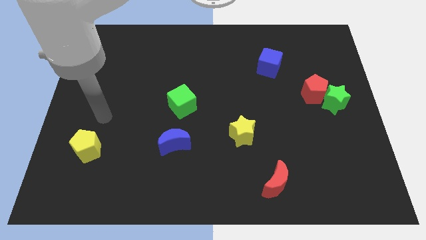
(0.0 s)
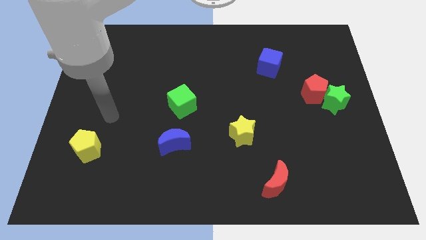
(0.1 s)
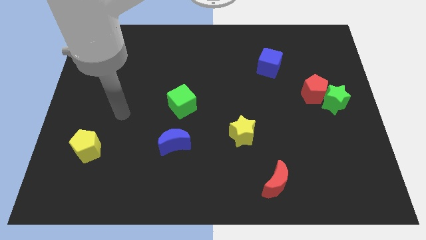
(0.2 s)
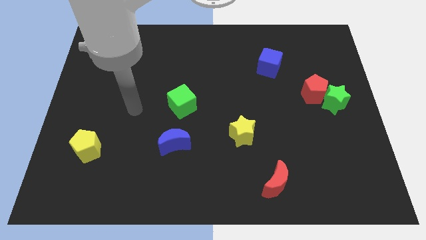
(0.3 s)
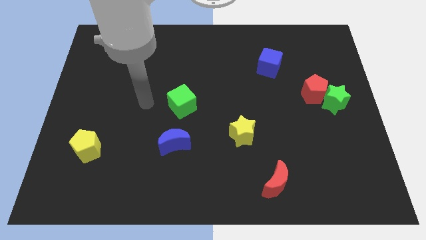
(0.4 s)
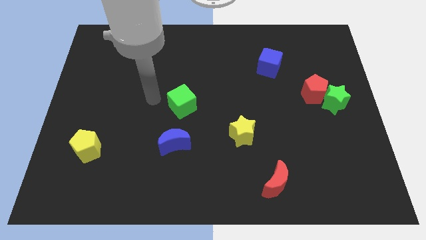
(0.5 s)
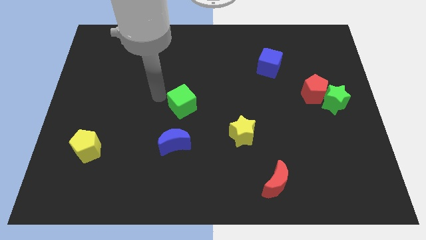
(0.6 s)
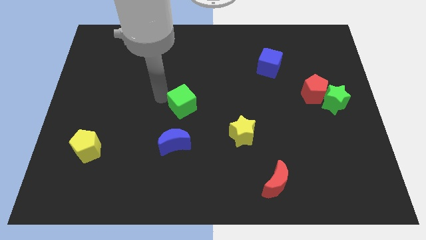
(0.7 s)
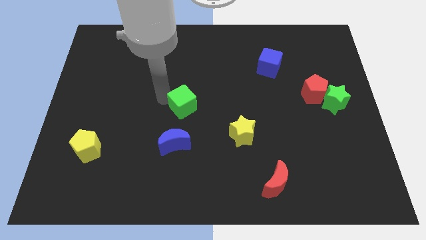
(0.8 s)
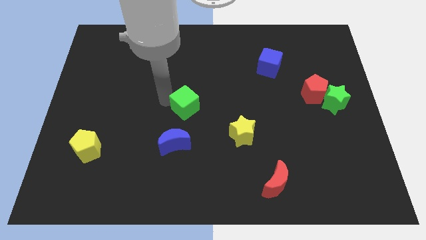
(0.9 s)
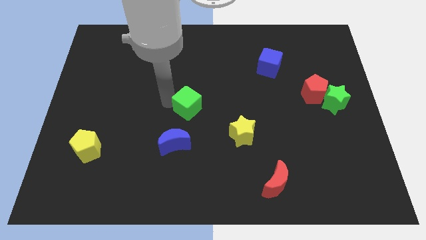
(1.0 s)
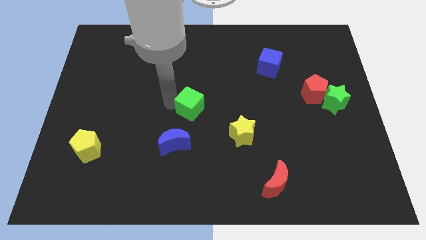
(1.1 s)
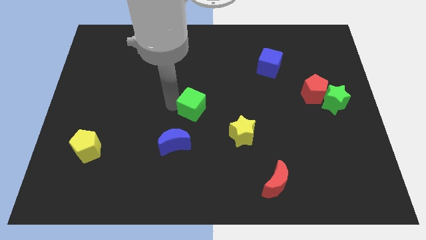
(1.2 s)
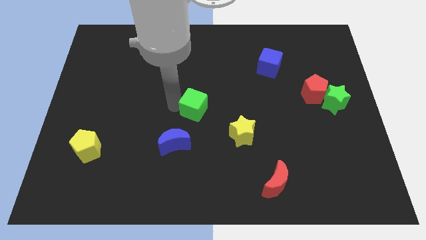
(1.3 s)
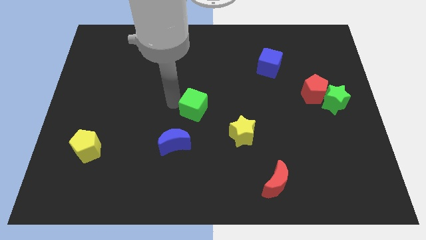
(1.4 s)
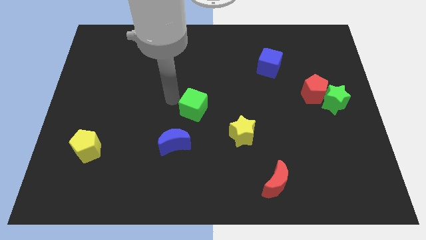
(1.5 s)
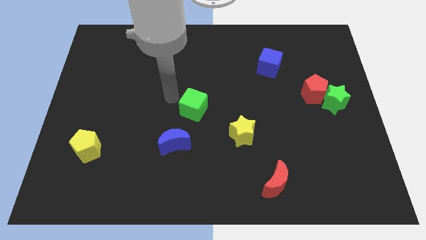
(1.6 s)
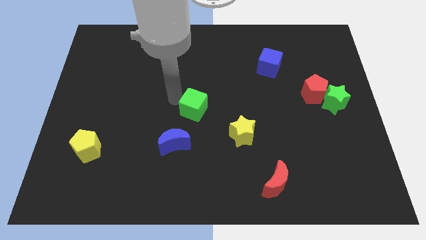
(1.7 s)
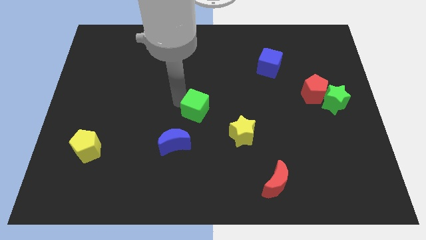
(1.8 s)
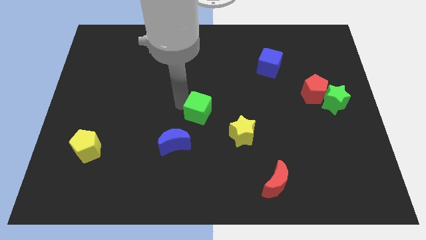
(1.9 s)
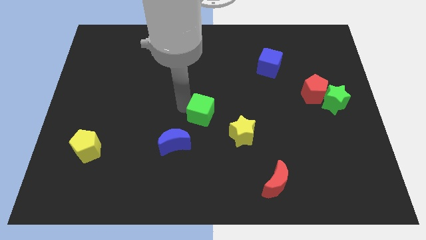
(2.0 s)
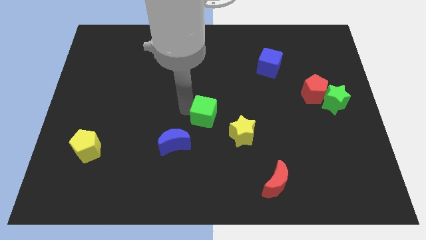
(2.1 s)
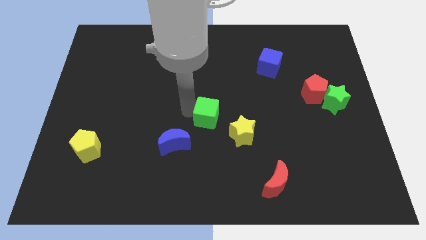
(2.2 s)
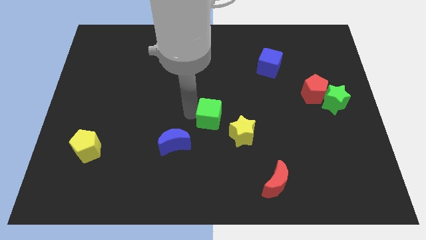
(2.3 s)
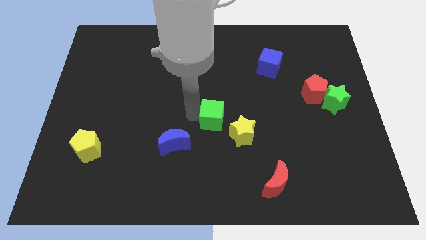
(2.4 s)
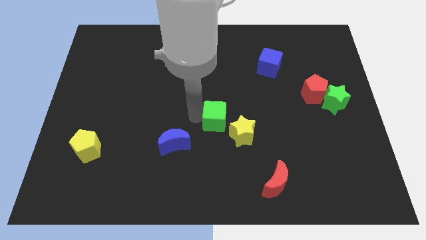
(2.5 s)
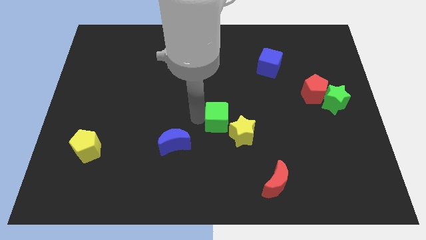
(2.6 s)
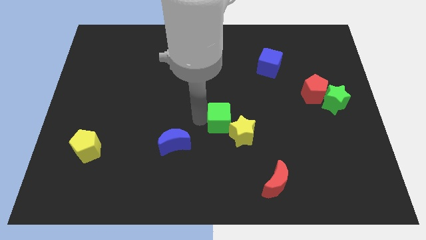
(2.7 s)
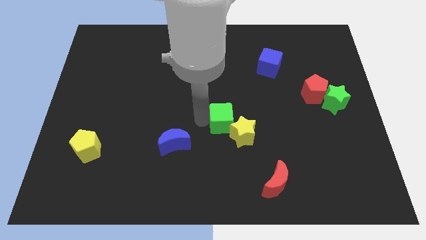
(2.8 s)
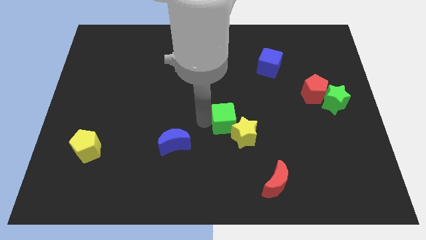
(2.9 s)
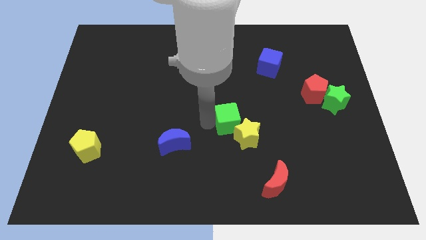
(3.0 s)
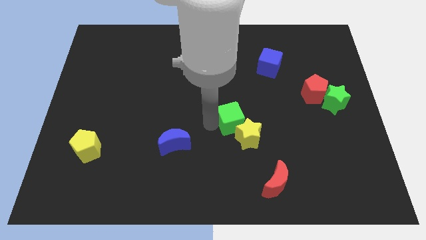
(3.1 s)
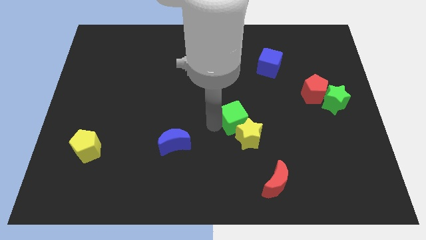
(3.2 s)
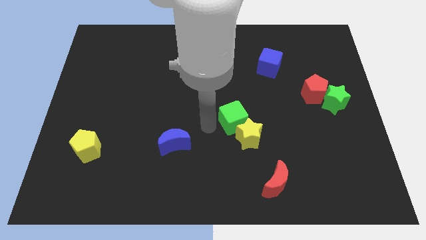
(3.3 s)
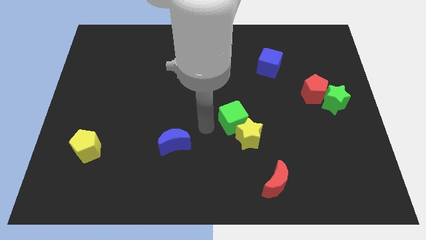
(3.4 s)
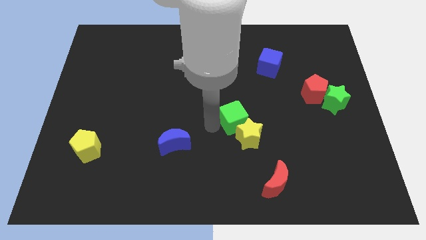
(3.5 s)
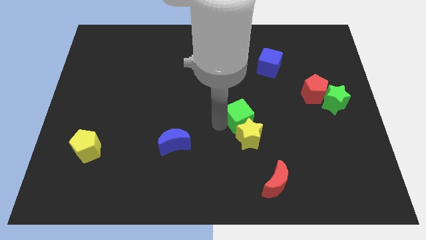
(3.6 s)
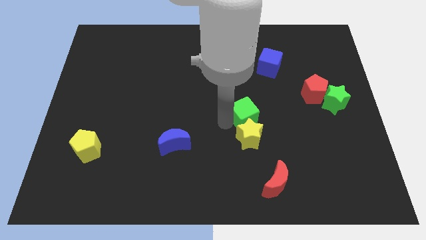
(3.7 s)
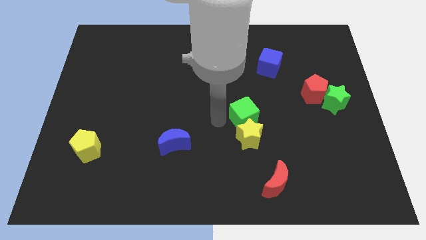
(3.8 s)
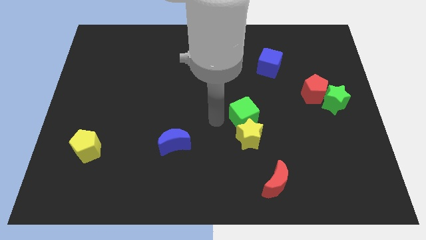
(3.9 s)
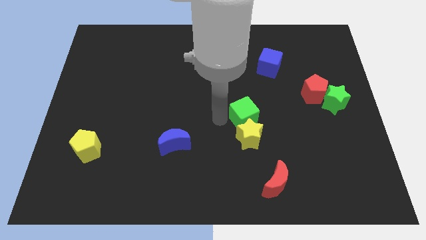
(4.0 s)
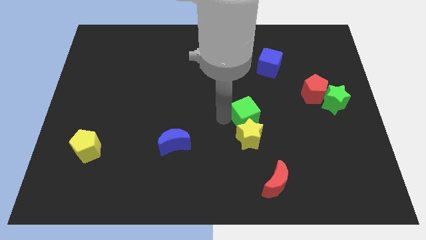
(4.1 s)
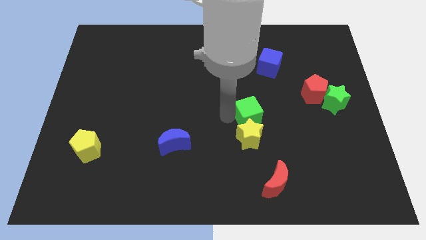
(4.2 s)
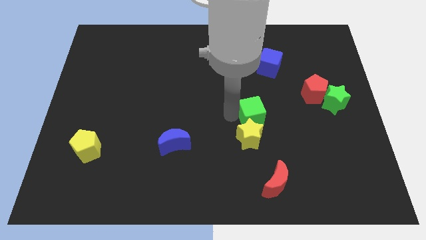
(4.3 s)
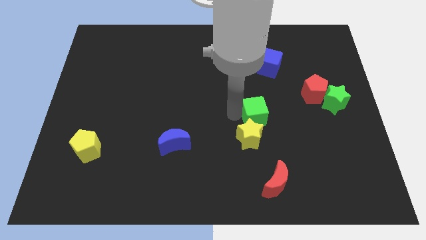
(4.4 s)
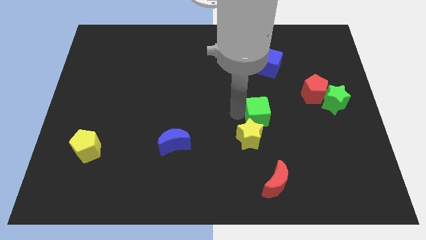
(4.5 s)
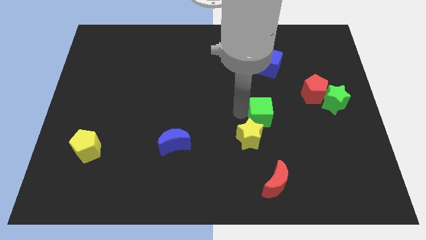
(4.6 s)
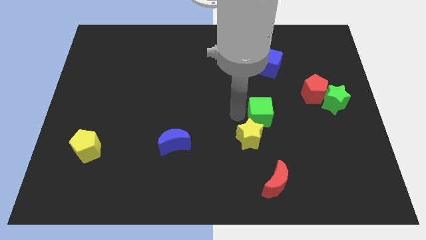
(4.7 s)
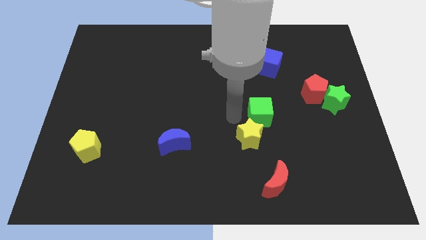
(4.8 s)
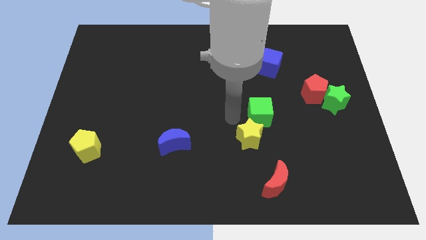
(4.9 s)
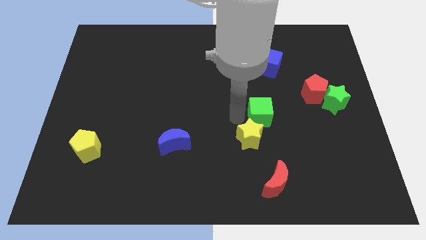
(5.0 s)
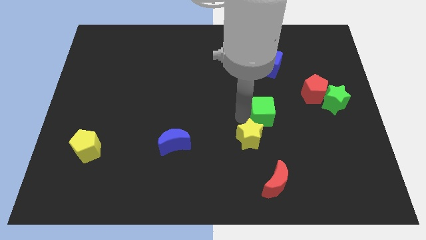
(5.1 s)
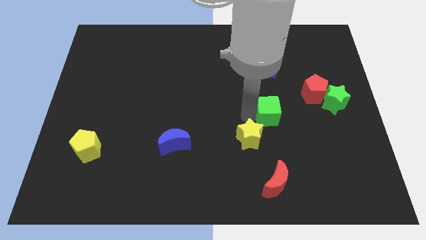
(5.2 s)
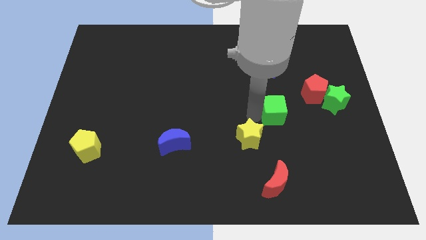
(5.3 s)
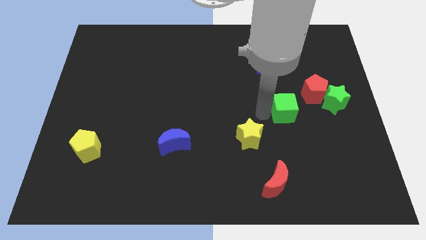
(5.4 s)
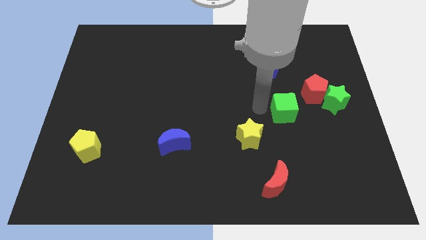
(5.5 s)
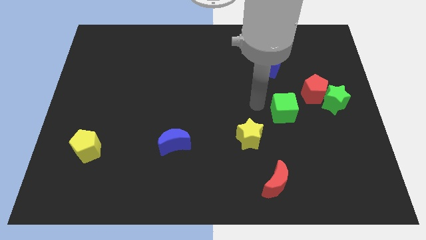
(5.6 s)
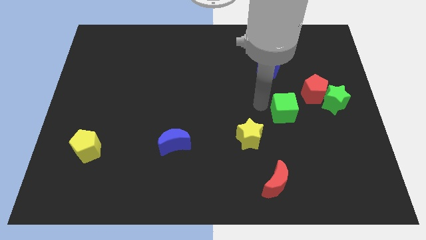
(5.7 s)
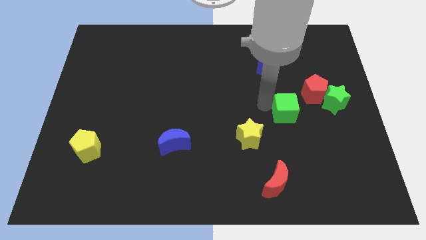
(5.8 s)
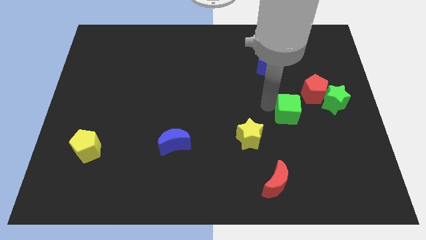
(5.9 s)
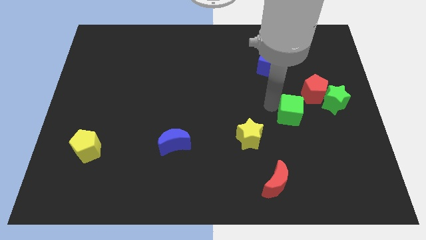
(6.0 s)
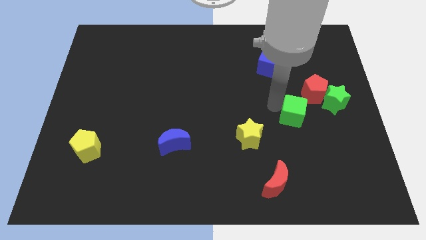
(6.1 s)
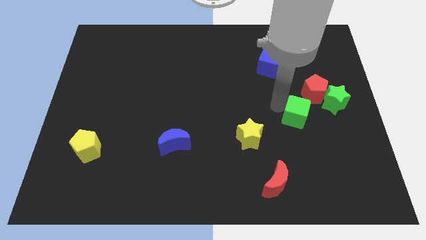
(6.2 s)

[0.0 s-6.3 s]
push the green cube to the bottom left side of the green star
